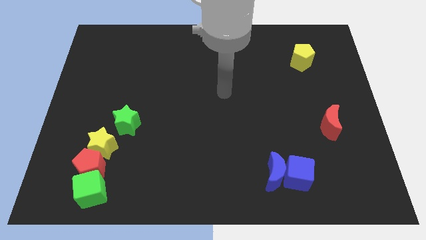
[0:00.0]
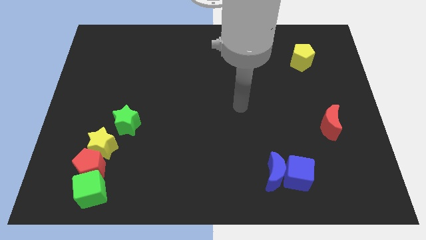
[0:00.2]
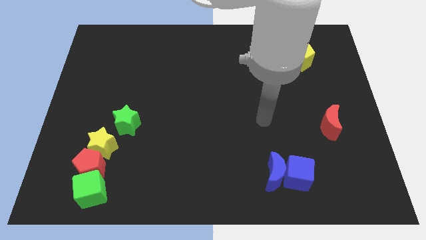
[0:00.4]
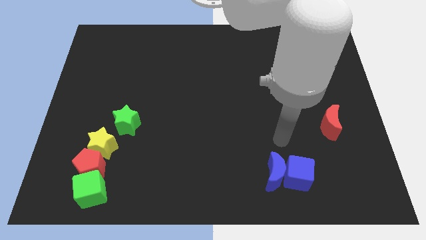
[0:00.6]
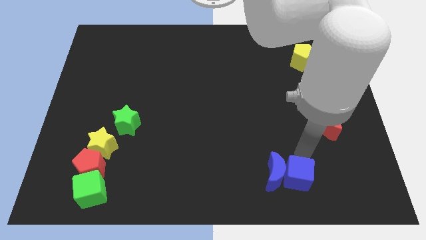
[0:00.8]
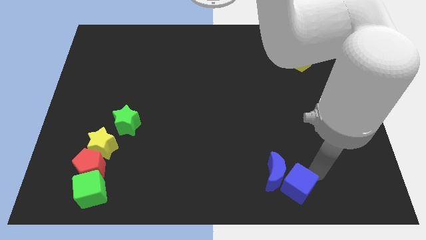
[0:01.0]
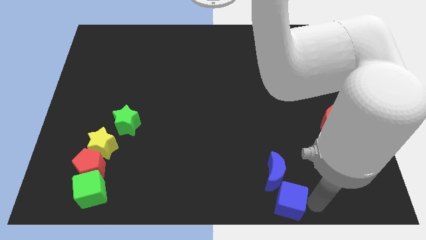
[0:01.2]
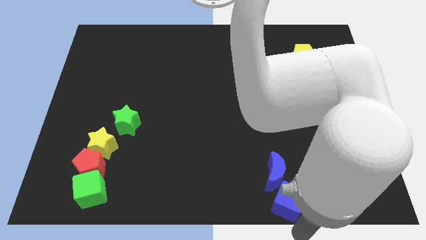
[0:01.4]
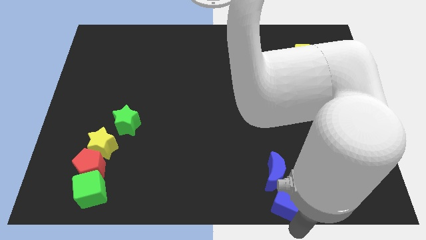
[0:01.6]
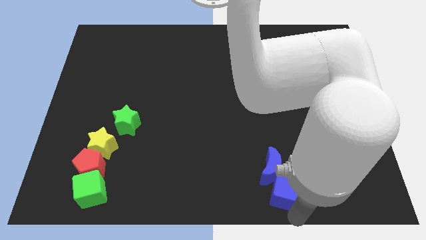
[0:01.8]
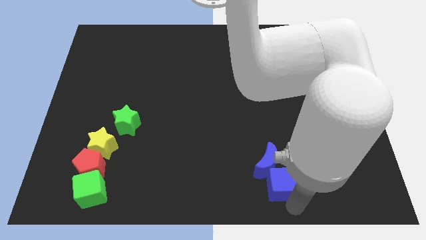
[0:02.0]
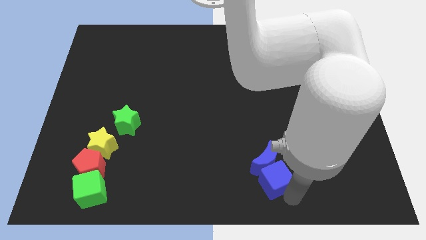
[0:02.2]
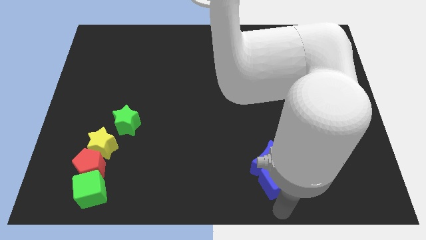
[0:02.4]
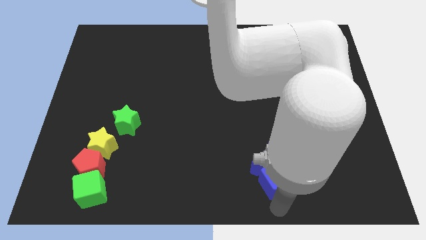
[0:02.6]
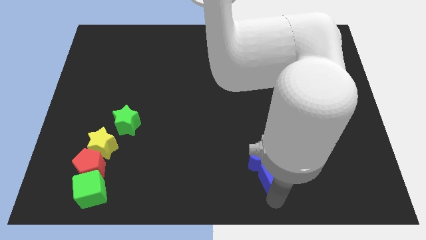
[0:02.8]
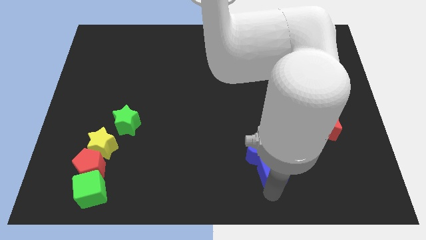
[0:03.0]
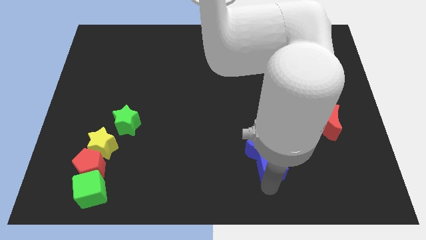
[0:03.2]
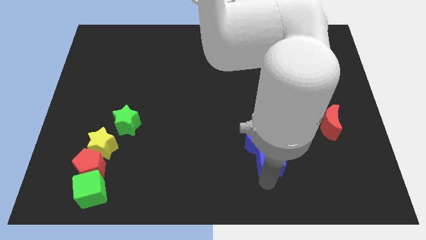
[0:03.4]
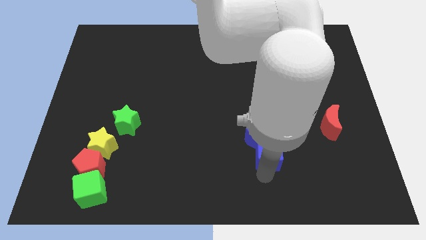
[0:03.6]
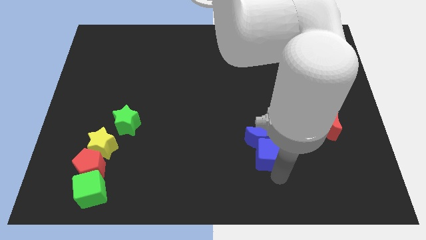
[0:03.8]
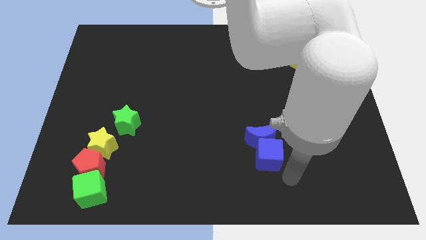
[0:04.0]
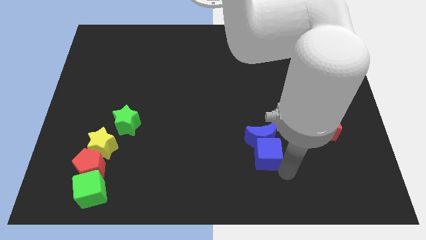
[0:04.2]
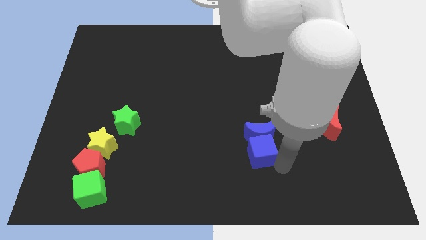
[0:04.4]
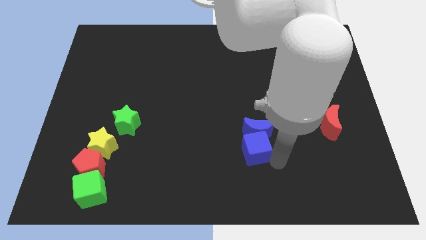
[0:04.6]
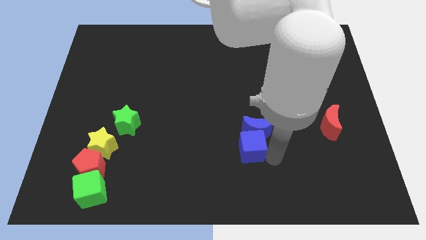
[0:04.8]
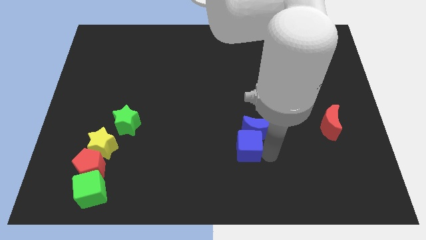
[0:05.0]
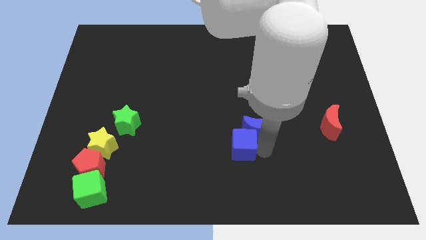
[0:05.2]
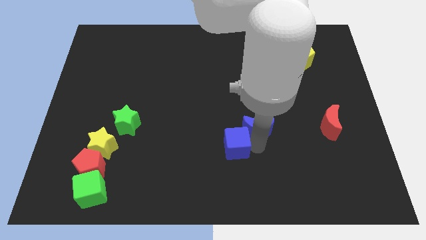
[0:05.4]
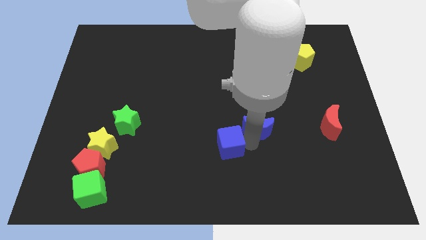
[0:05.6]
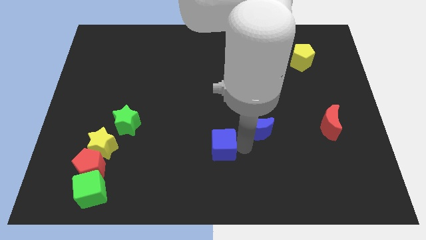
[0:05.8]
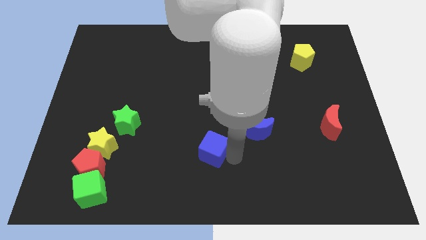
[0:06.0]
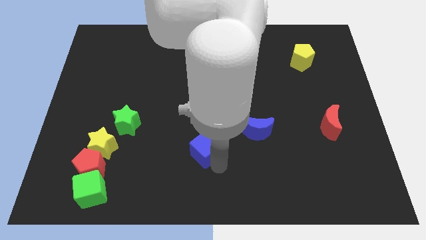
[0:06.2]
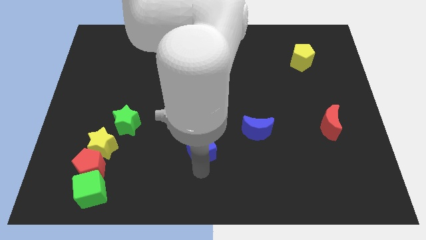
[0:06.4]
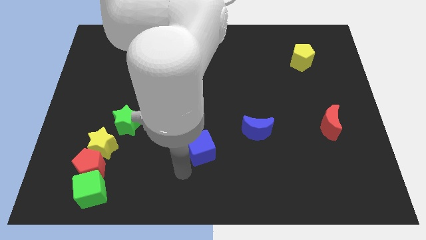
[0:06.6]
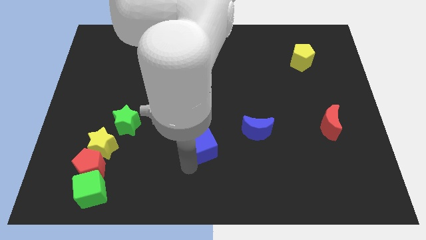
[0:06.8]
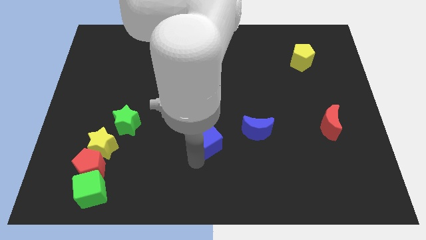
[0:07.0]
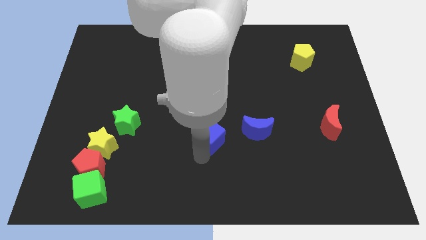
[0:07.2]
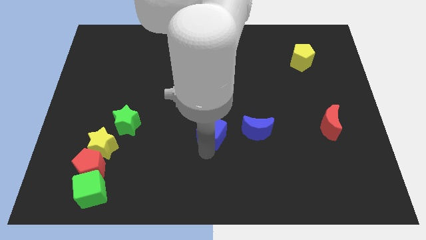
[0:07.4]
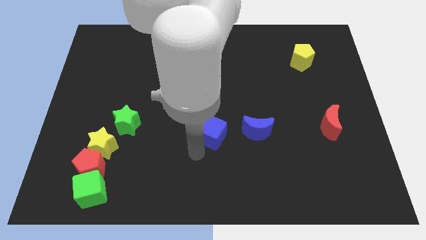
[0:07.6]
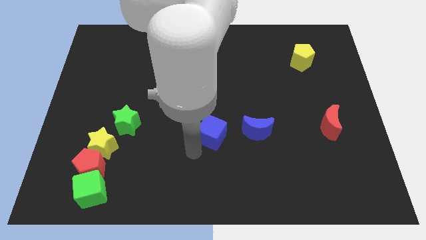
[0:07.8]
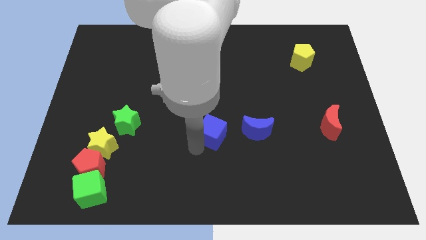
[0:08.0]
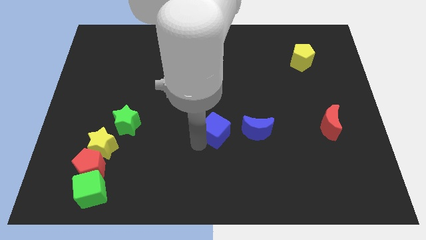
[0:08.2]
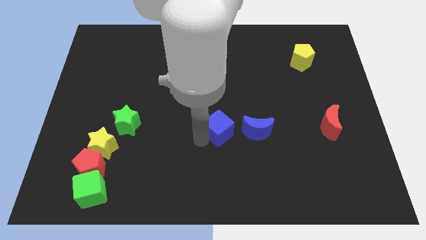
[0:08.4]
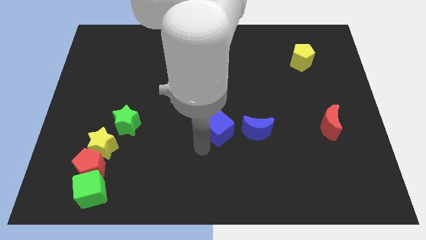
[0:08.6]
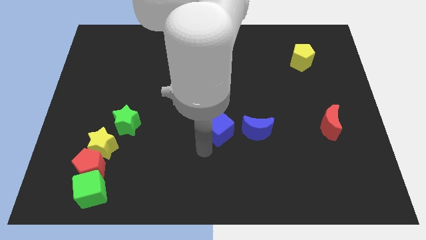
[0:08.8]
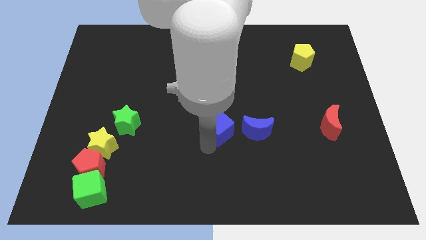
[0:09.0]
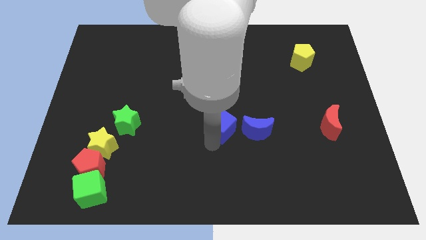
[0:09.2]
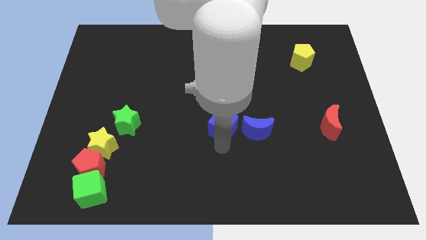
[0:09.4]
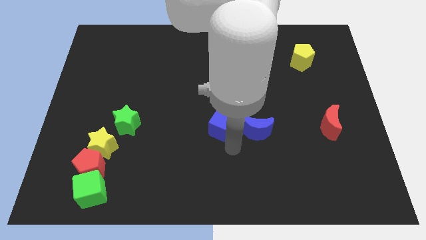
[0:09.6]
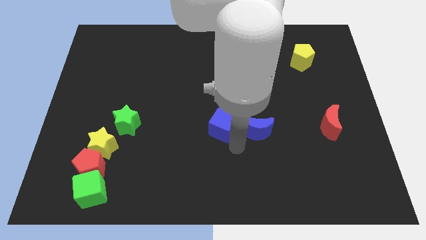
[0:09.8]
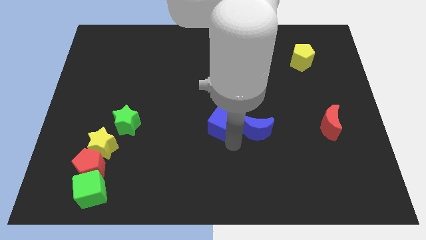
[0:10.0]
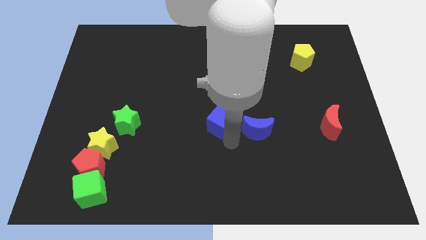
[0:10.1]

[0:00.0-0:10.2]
move the blue cube up and to the left

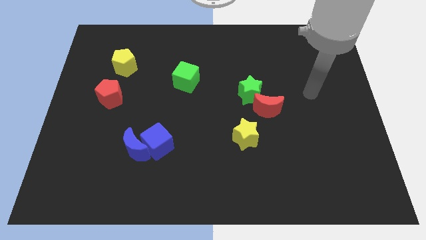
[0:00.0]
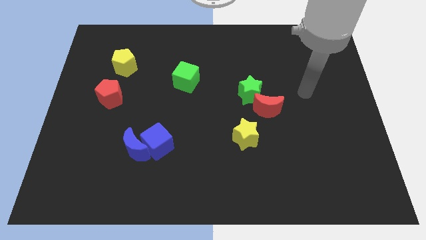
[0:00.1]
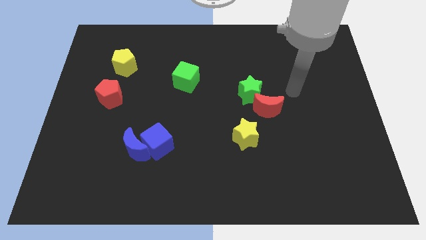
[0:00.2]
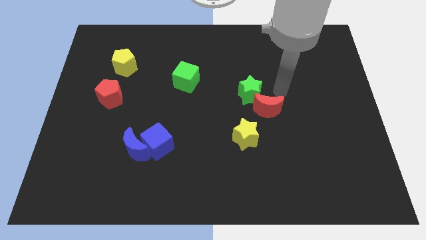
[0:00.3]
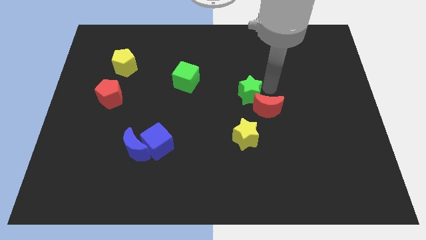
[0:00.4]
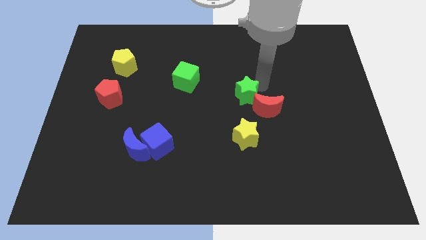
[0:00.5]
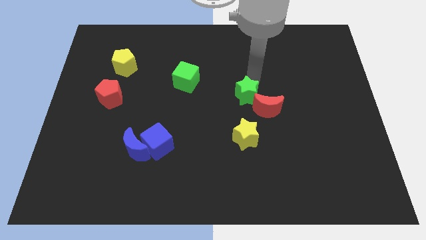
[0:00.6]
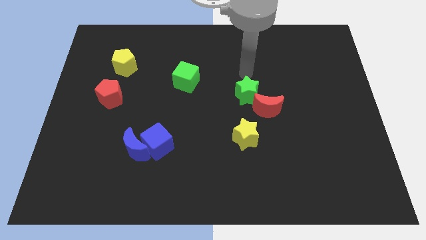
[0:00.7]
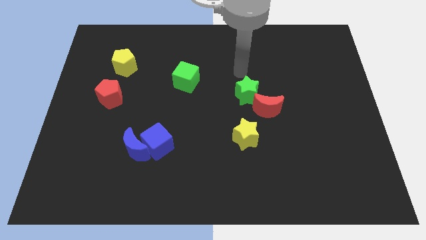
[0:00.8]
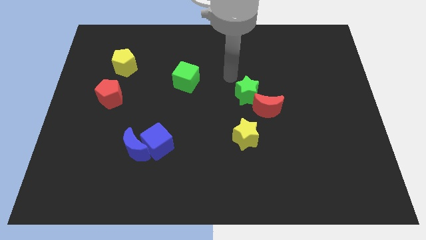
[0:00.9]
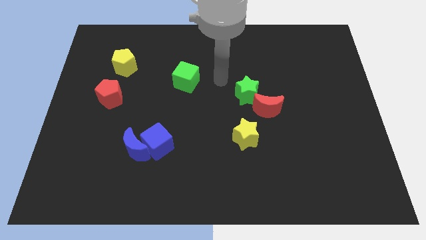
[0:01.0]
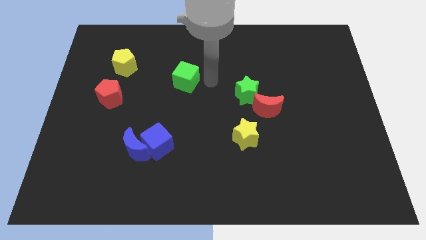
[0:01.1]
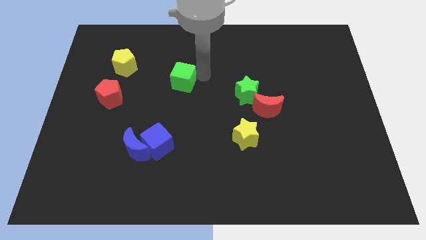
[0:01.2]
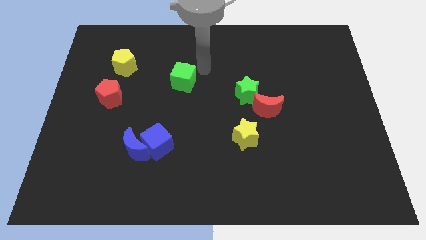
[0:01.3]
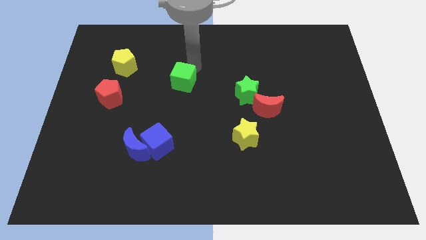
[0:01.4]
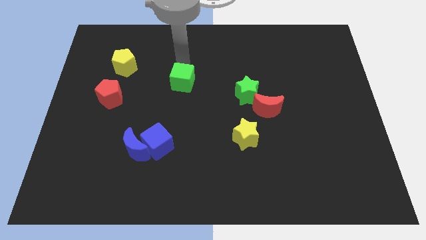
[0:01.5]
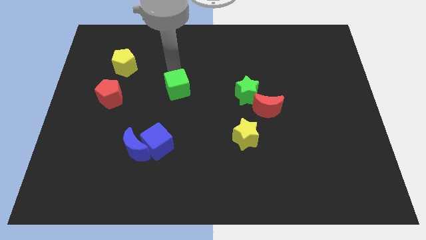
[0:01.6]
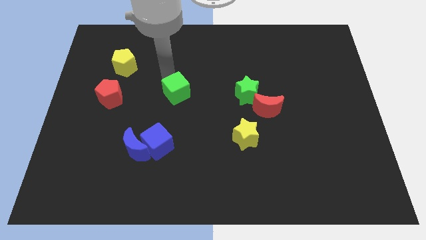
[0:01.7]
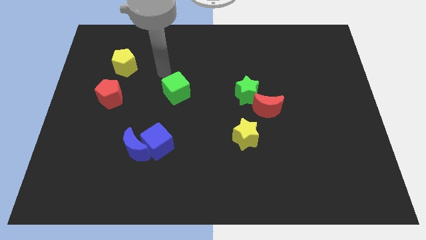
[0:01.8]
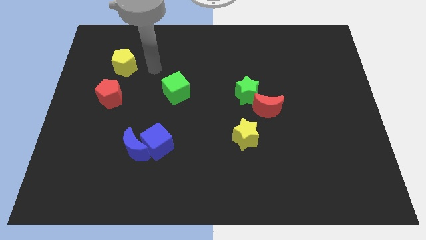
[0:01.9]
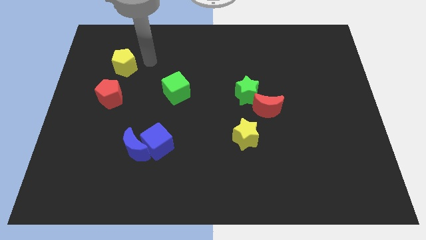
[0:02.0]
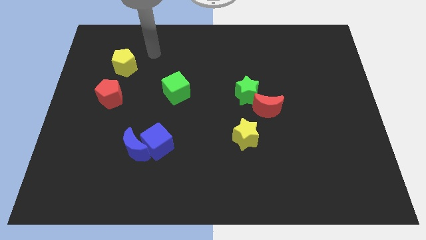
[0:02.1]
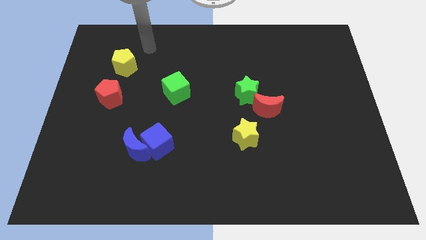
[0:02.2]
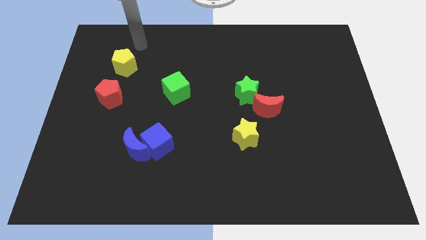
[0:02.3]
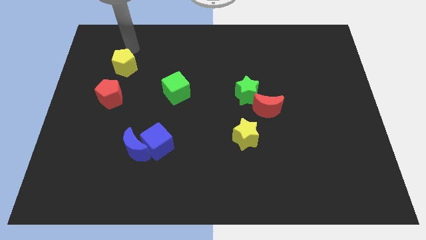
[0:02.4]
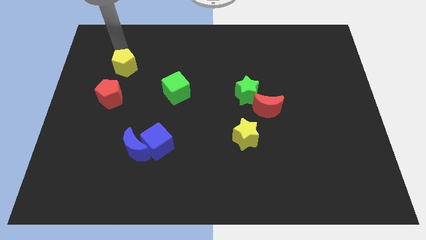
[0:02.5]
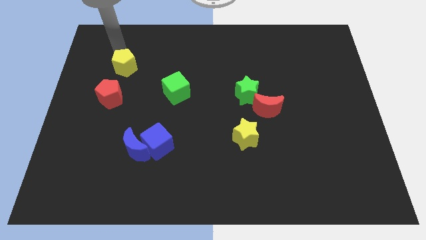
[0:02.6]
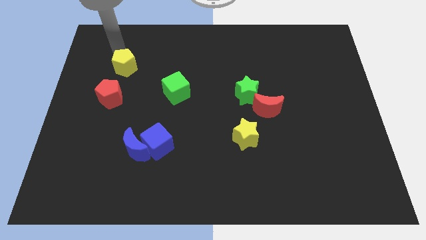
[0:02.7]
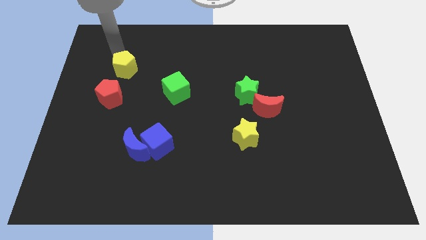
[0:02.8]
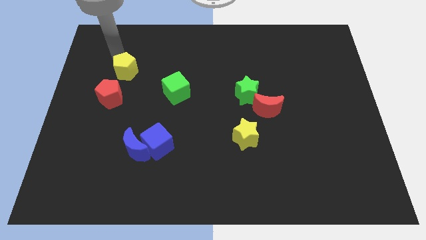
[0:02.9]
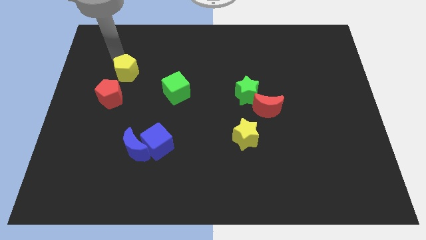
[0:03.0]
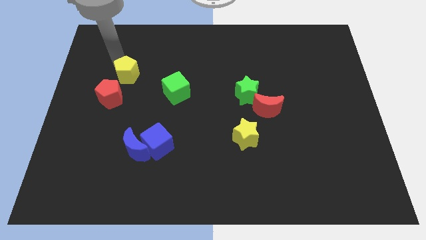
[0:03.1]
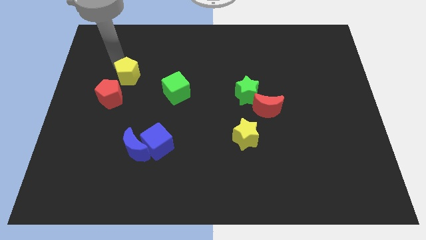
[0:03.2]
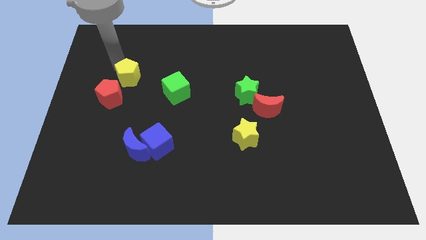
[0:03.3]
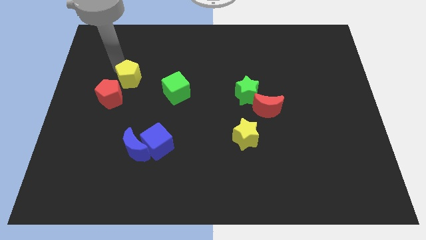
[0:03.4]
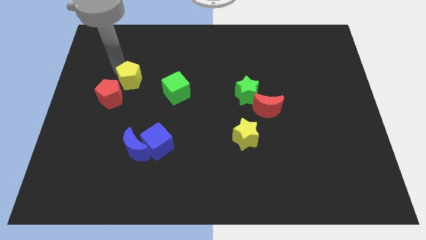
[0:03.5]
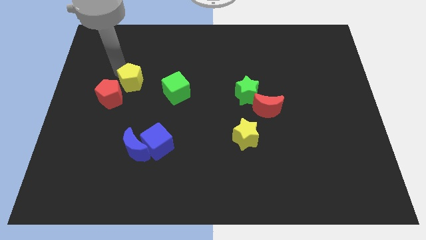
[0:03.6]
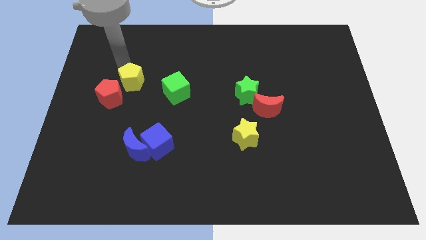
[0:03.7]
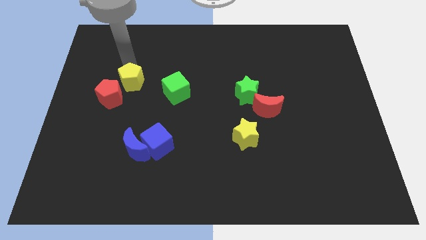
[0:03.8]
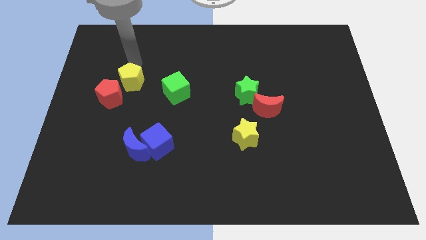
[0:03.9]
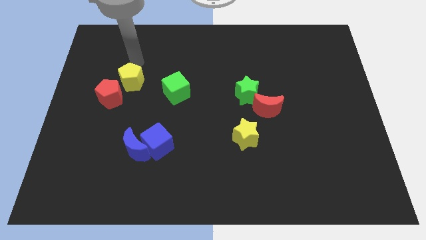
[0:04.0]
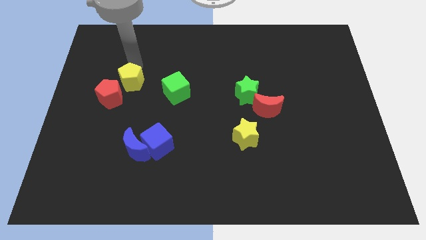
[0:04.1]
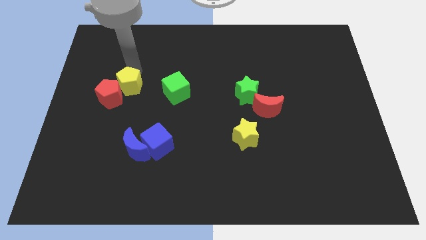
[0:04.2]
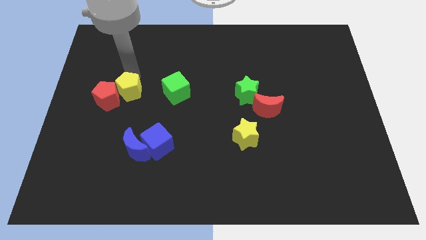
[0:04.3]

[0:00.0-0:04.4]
slide the yellow pentagon downwards a bit
